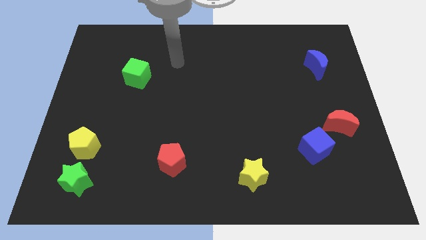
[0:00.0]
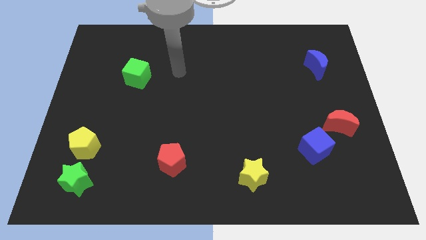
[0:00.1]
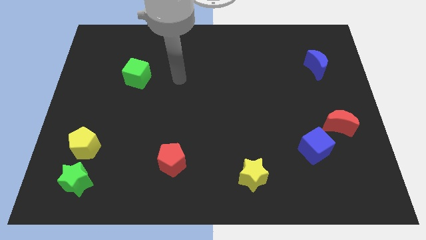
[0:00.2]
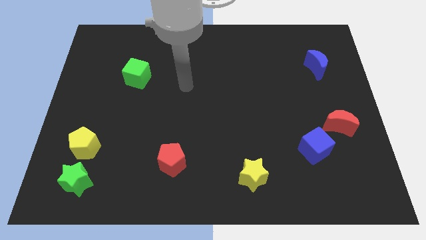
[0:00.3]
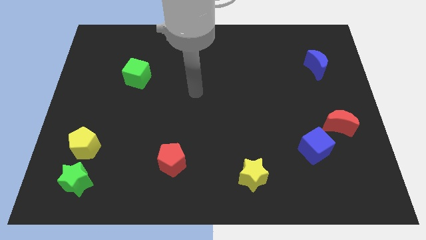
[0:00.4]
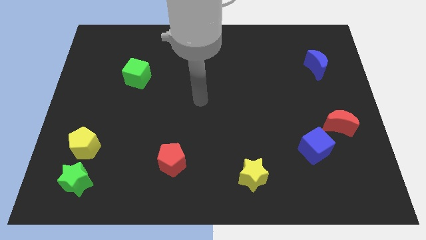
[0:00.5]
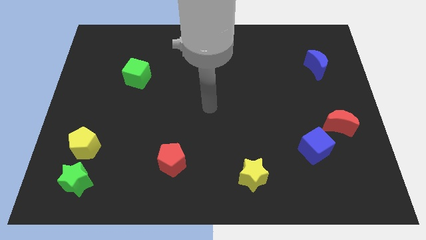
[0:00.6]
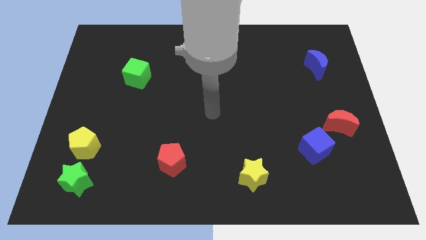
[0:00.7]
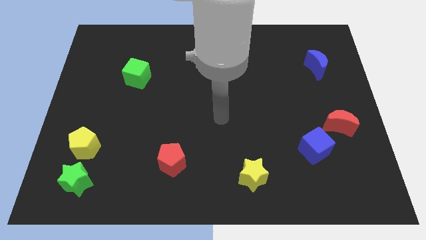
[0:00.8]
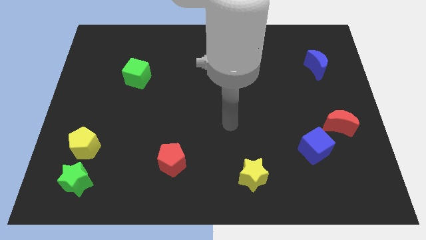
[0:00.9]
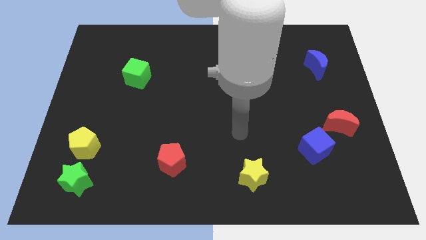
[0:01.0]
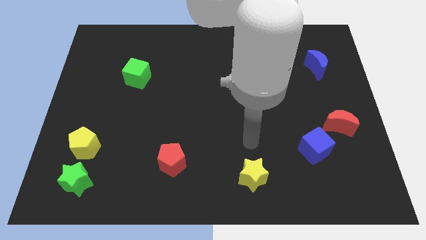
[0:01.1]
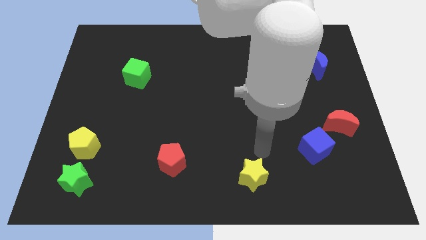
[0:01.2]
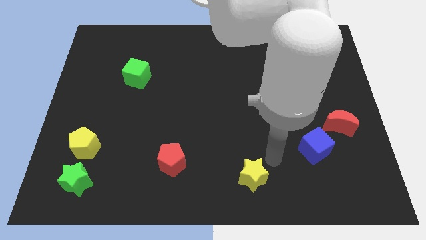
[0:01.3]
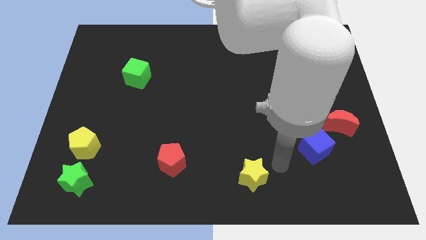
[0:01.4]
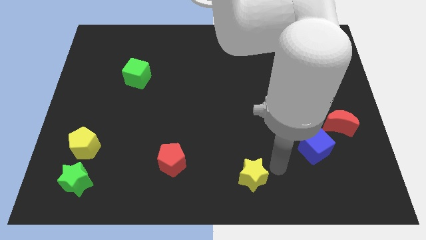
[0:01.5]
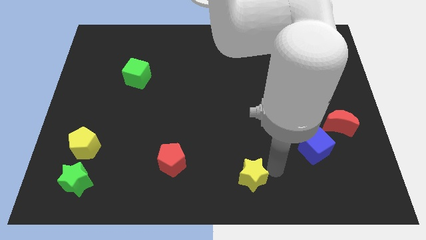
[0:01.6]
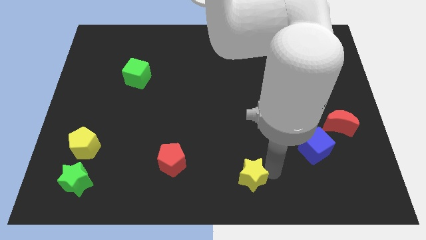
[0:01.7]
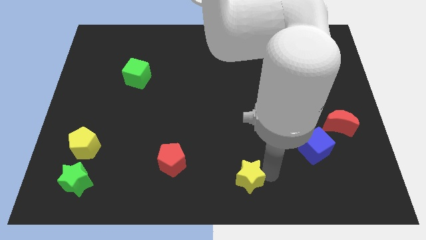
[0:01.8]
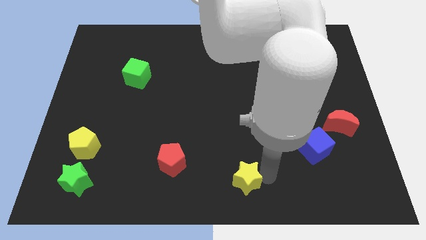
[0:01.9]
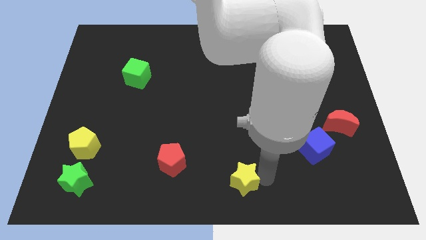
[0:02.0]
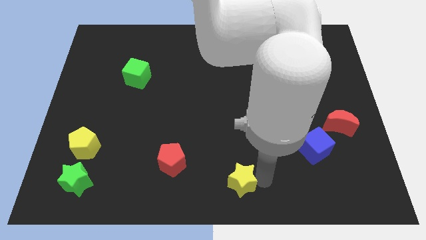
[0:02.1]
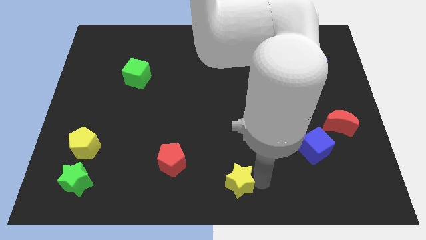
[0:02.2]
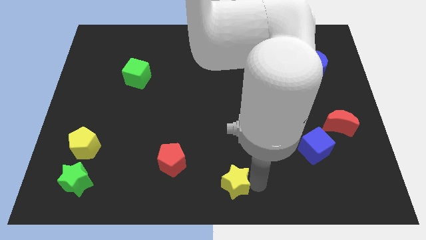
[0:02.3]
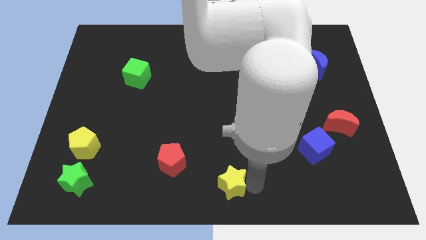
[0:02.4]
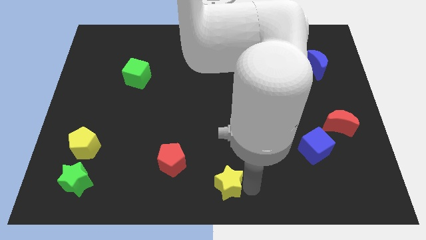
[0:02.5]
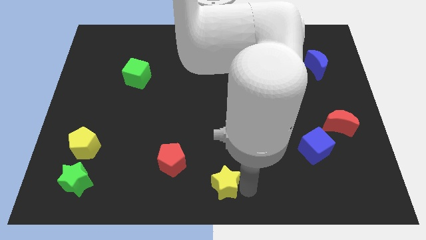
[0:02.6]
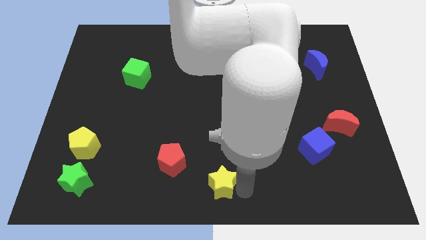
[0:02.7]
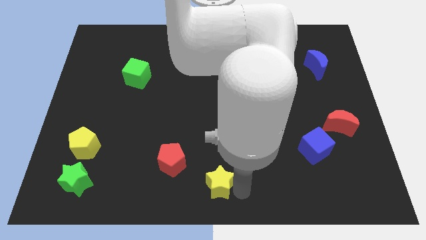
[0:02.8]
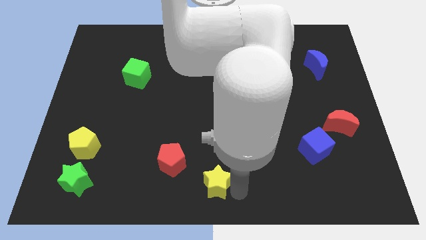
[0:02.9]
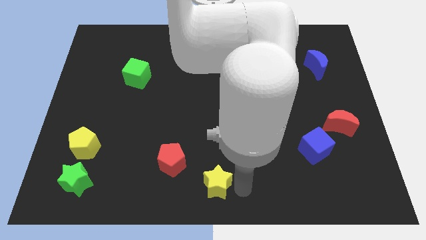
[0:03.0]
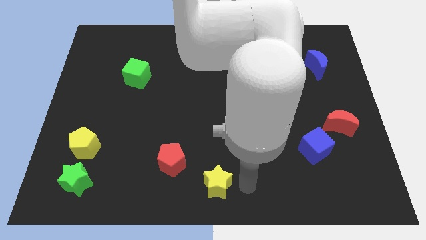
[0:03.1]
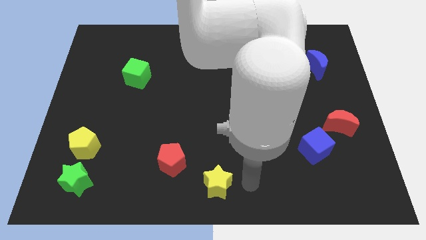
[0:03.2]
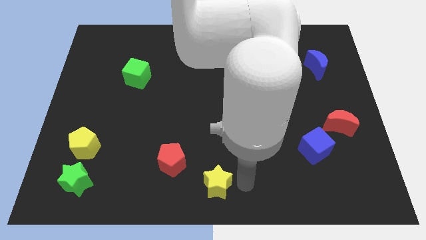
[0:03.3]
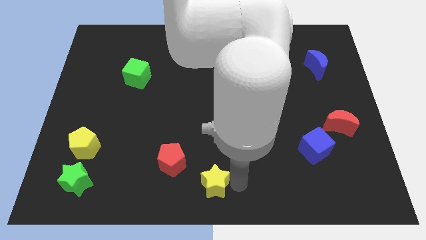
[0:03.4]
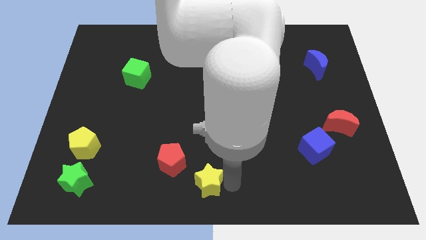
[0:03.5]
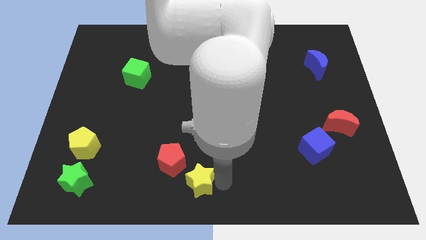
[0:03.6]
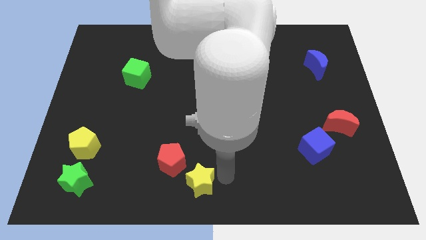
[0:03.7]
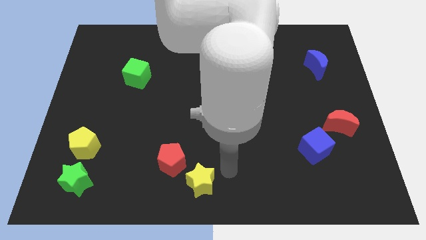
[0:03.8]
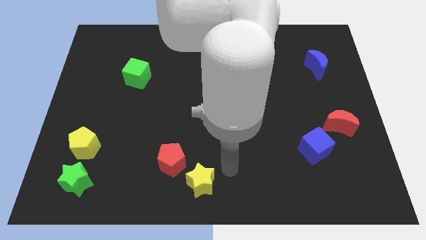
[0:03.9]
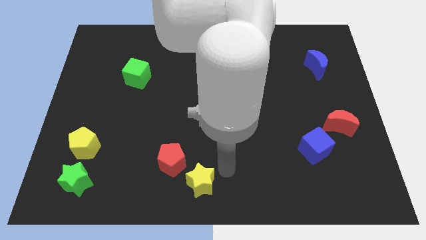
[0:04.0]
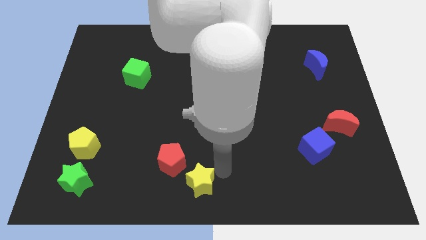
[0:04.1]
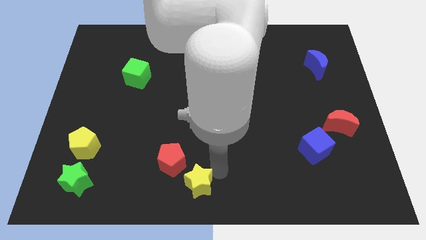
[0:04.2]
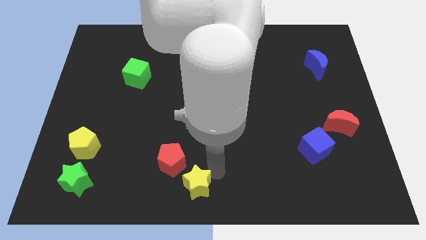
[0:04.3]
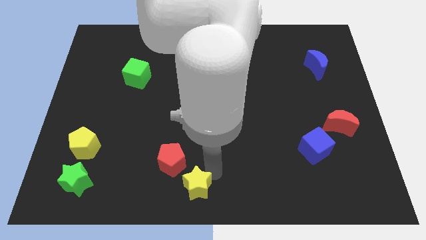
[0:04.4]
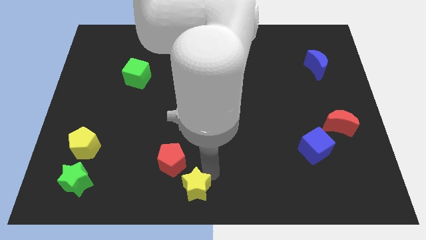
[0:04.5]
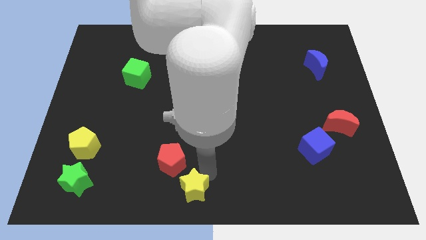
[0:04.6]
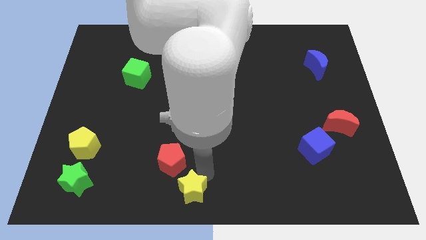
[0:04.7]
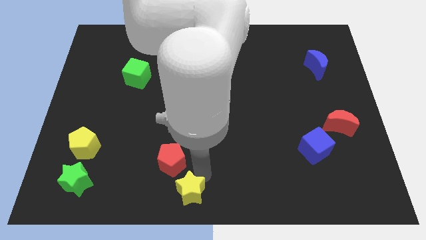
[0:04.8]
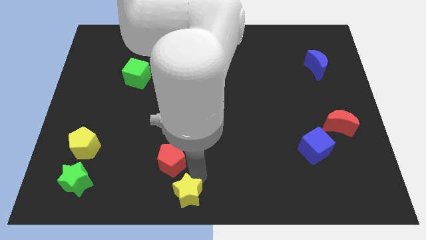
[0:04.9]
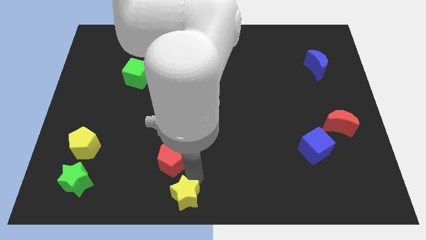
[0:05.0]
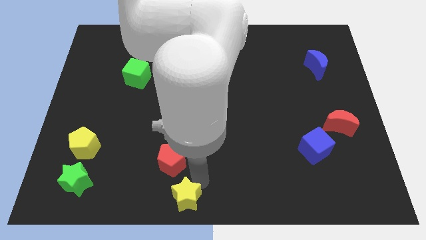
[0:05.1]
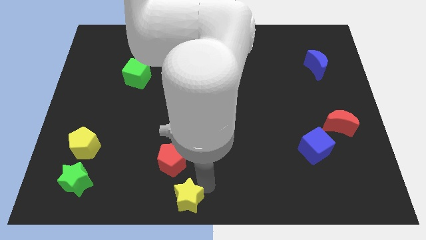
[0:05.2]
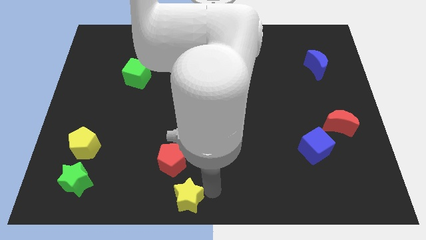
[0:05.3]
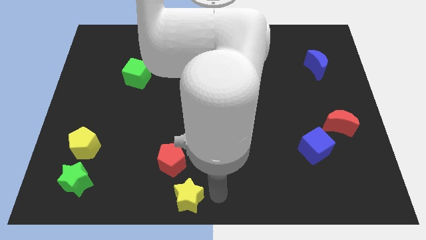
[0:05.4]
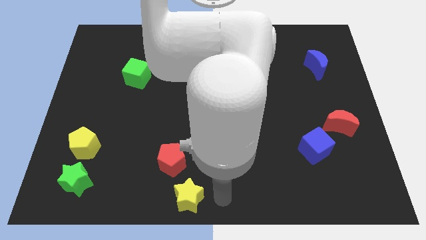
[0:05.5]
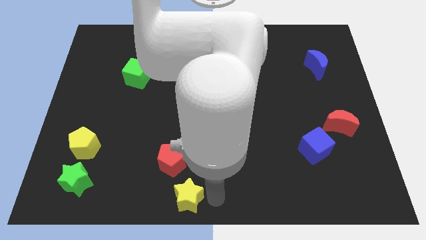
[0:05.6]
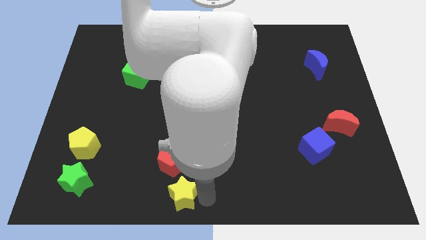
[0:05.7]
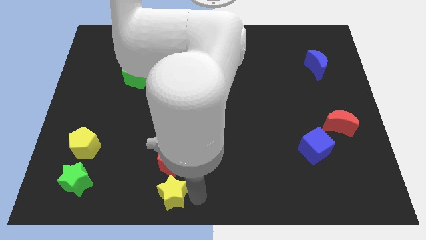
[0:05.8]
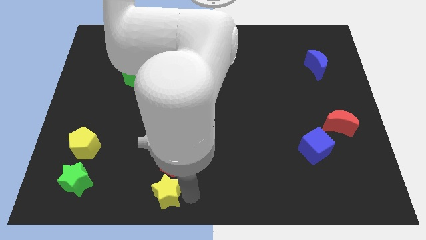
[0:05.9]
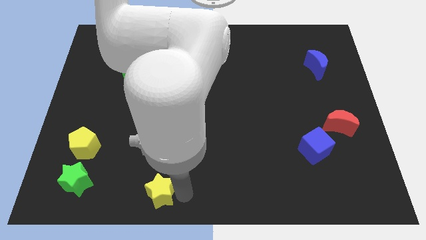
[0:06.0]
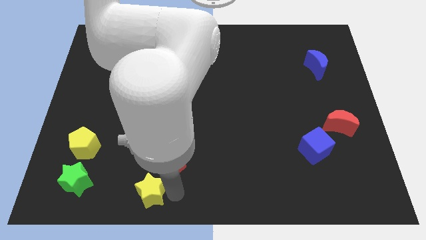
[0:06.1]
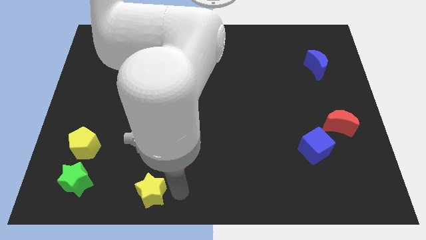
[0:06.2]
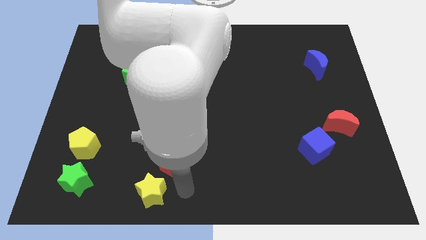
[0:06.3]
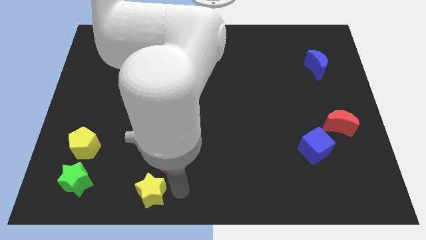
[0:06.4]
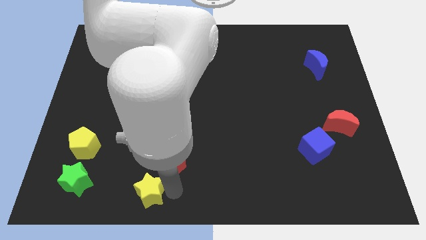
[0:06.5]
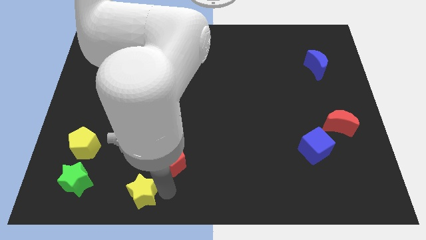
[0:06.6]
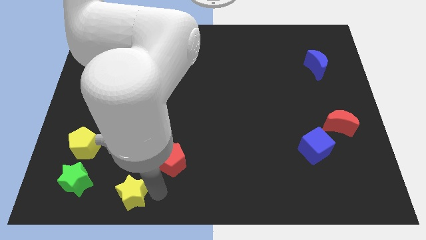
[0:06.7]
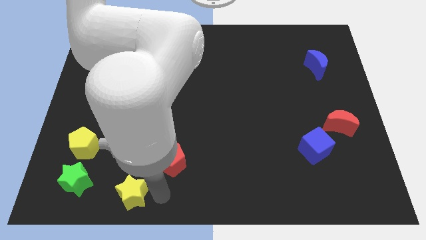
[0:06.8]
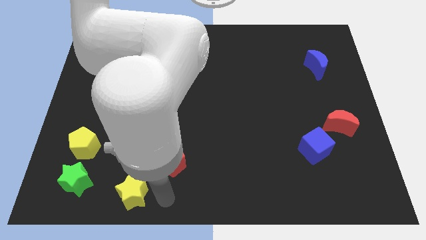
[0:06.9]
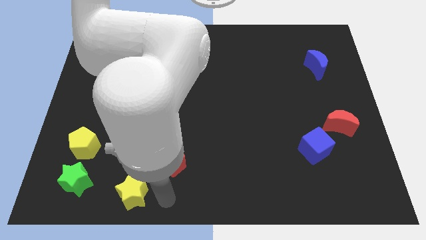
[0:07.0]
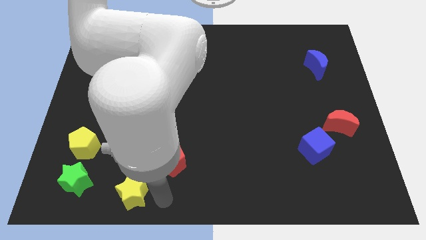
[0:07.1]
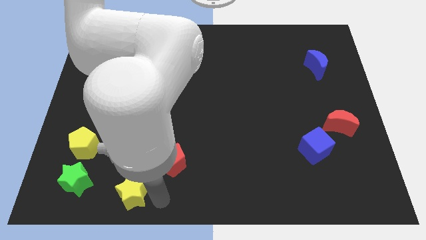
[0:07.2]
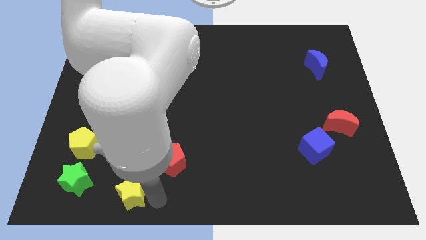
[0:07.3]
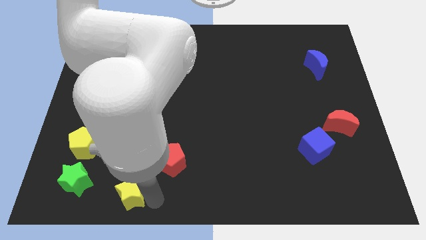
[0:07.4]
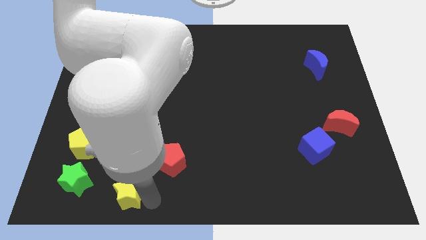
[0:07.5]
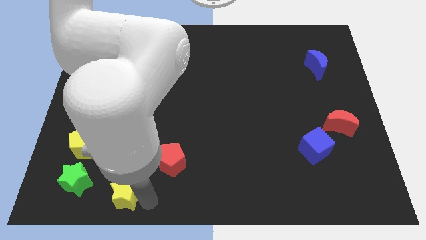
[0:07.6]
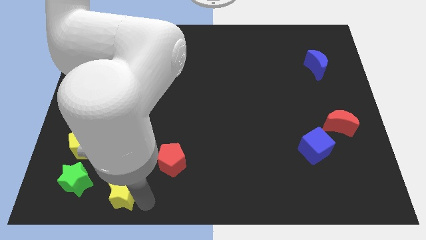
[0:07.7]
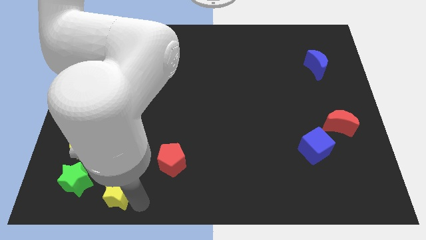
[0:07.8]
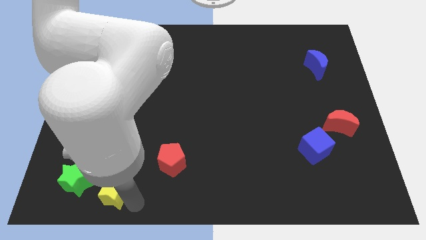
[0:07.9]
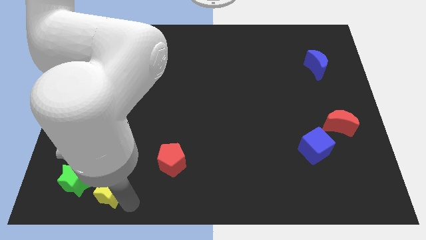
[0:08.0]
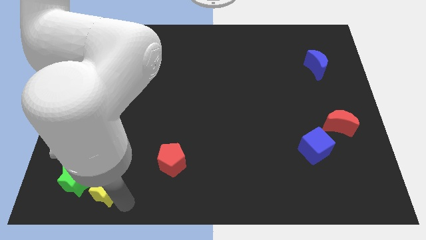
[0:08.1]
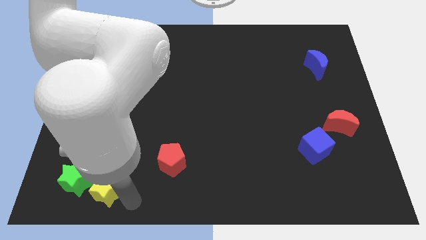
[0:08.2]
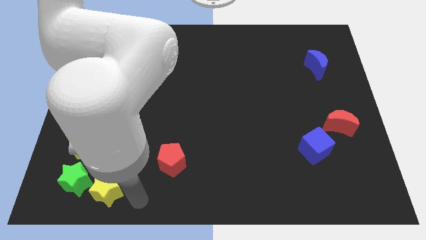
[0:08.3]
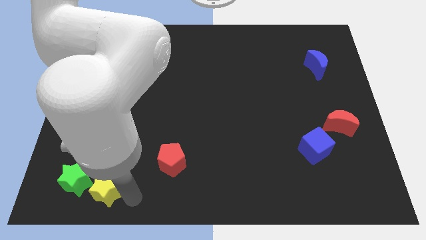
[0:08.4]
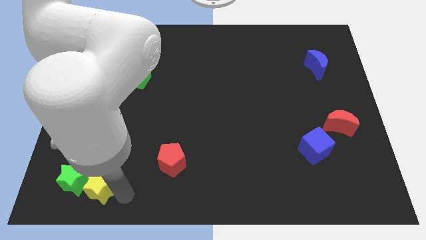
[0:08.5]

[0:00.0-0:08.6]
slide the yellow star next to the green star
